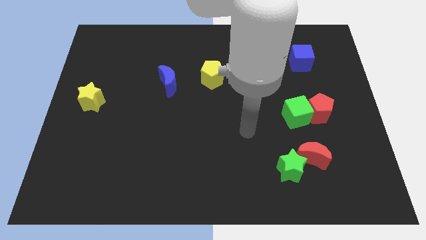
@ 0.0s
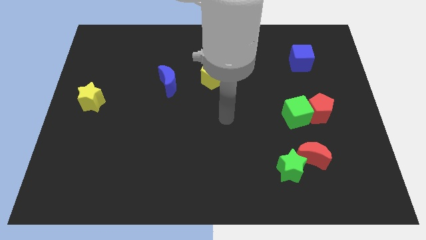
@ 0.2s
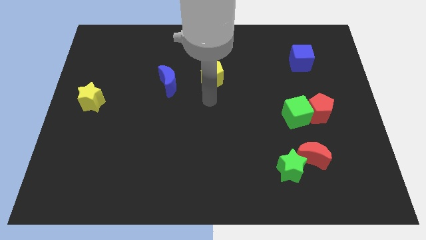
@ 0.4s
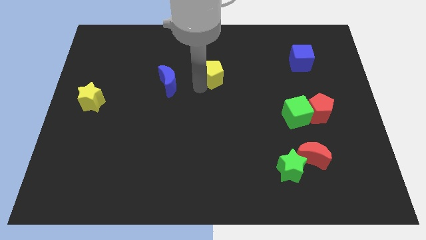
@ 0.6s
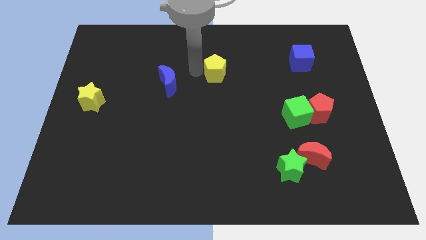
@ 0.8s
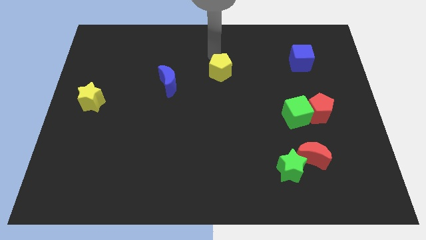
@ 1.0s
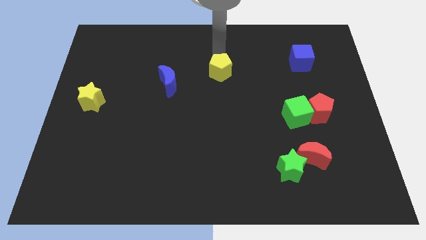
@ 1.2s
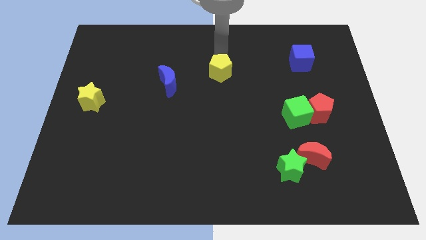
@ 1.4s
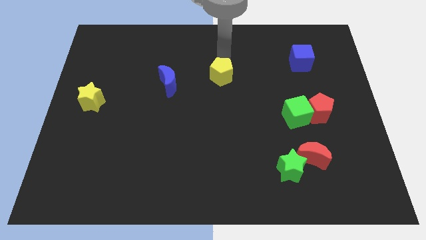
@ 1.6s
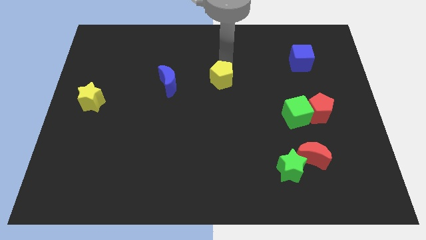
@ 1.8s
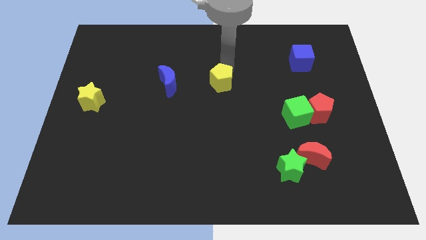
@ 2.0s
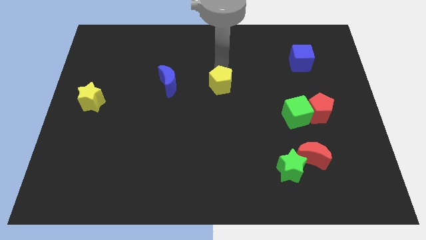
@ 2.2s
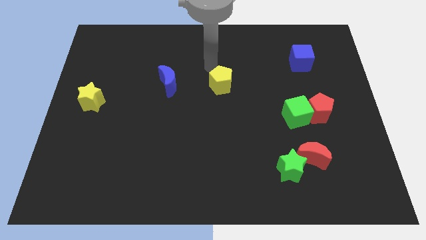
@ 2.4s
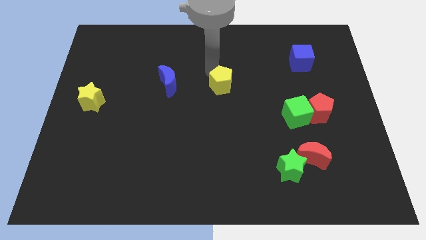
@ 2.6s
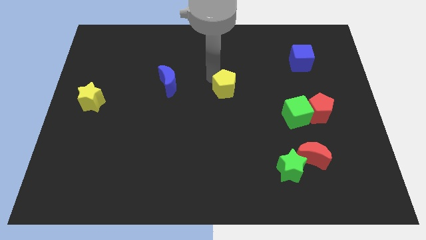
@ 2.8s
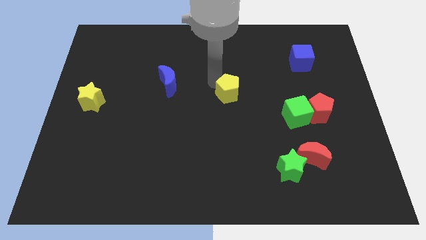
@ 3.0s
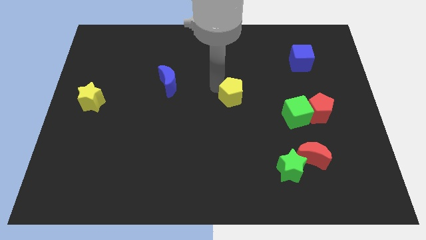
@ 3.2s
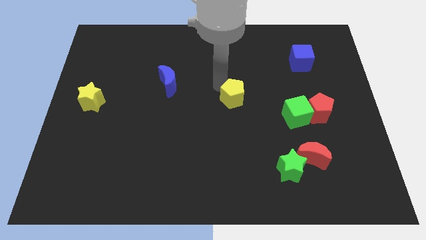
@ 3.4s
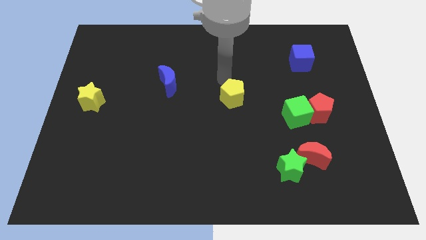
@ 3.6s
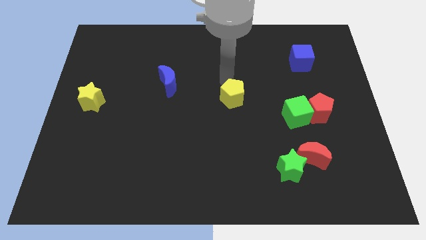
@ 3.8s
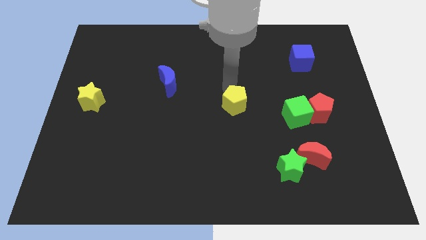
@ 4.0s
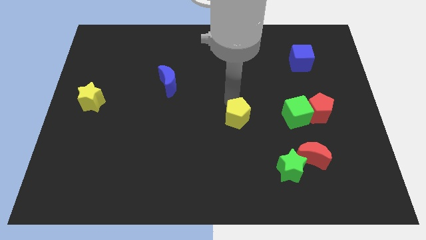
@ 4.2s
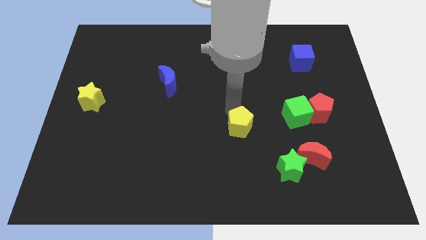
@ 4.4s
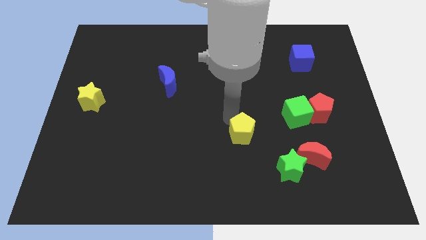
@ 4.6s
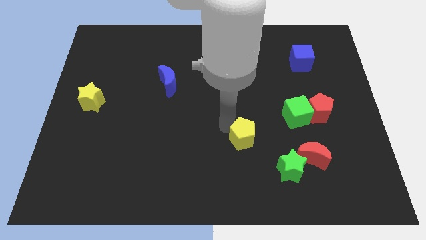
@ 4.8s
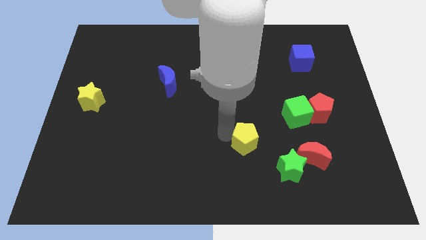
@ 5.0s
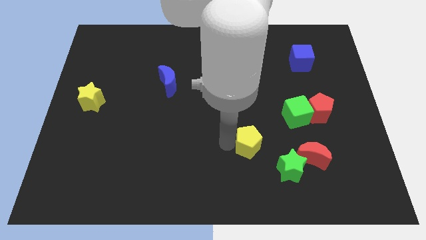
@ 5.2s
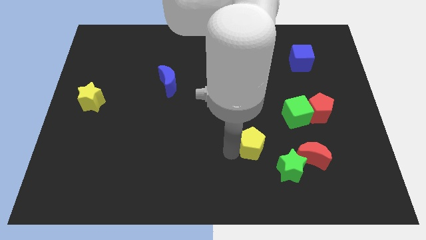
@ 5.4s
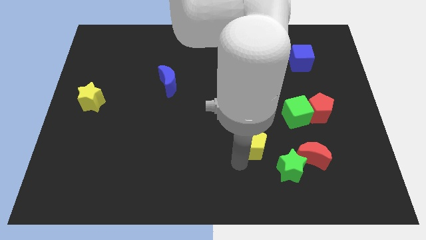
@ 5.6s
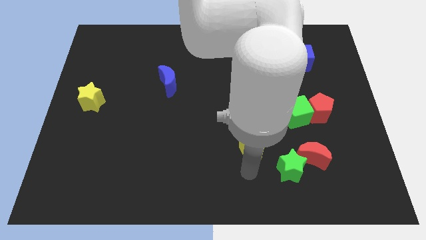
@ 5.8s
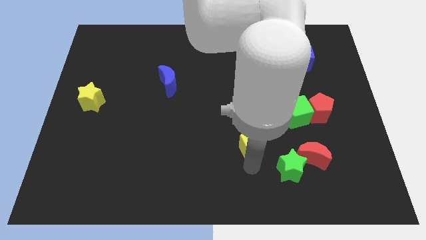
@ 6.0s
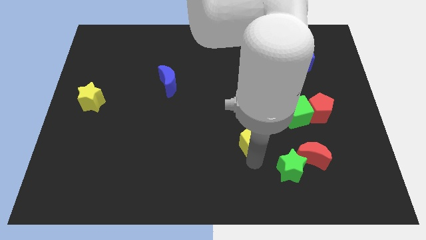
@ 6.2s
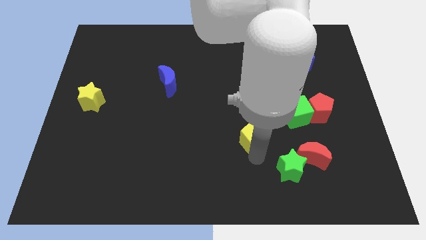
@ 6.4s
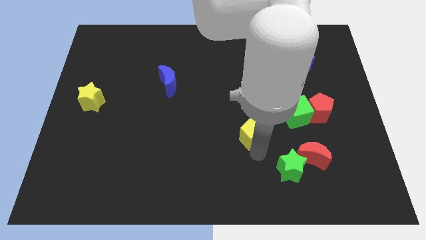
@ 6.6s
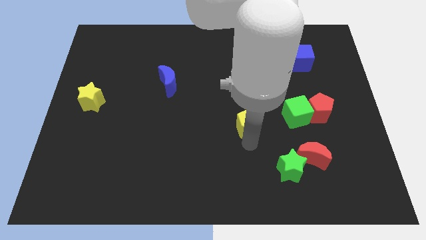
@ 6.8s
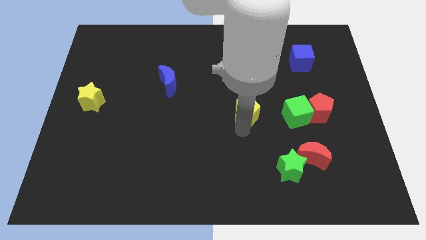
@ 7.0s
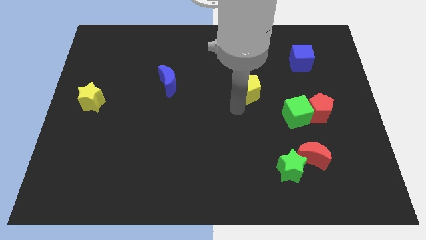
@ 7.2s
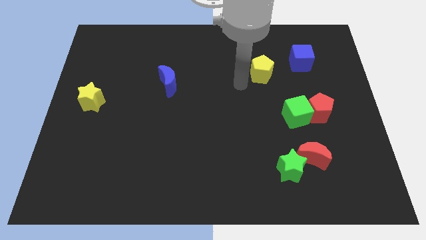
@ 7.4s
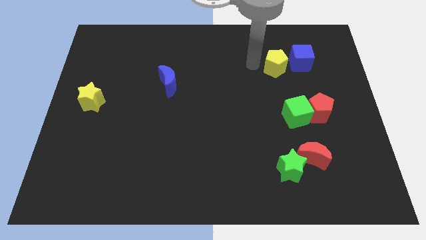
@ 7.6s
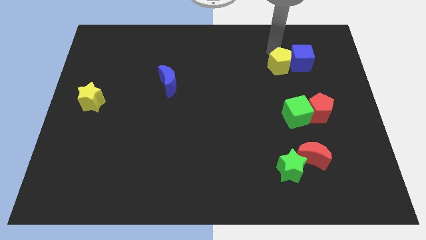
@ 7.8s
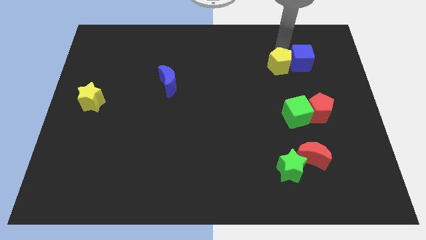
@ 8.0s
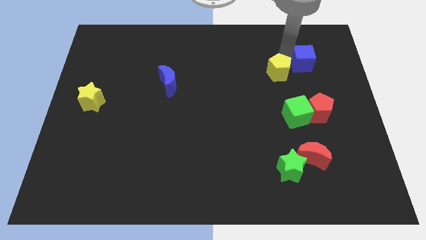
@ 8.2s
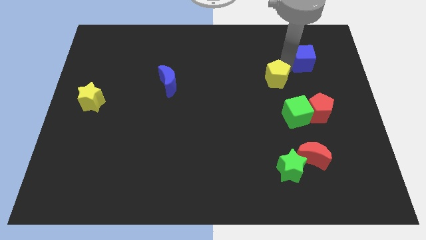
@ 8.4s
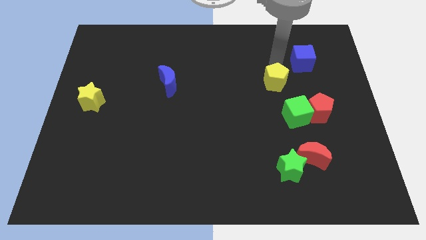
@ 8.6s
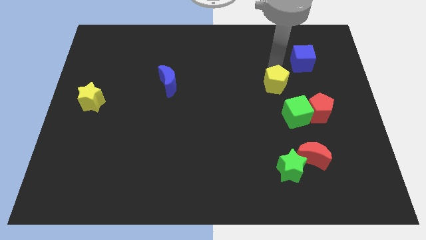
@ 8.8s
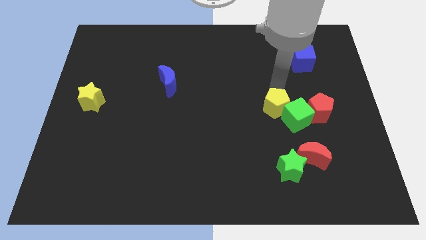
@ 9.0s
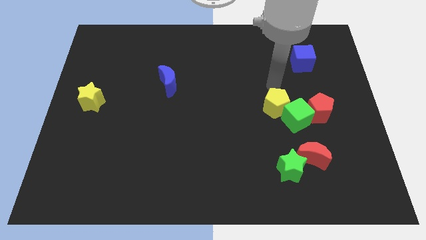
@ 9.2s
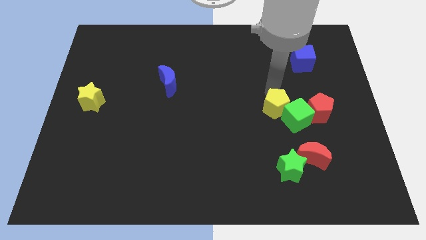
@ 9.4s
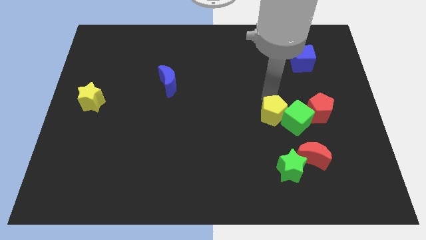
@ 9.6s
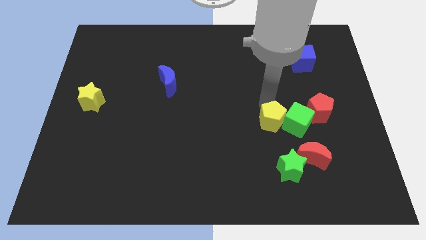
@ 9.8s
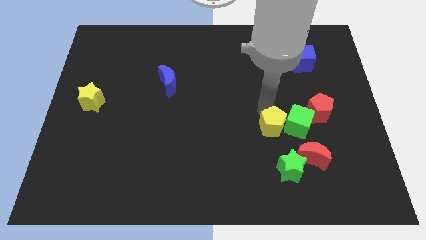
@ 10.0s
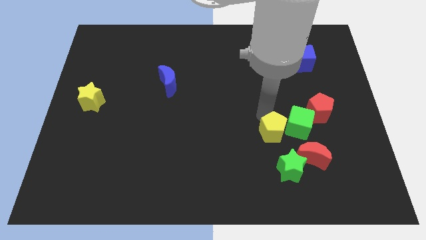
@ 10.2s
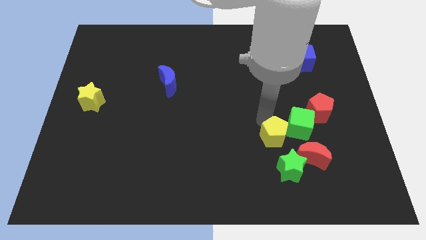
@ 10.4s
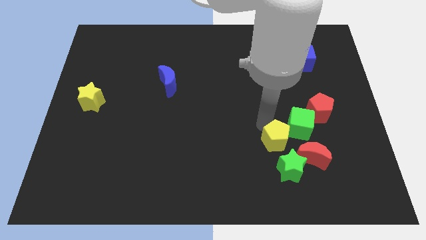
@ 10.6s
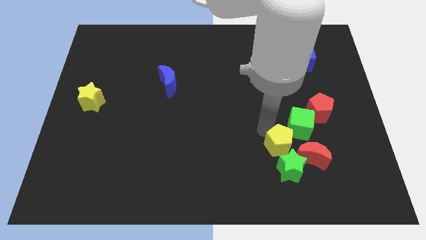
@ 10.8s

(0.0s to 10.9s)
put the yellow pentagon to the green star

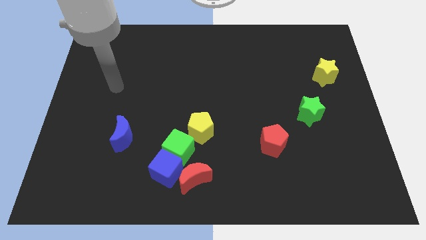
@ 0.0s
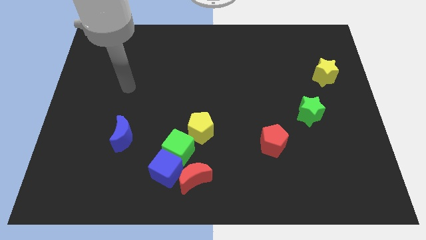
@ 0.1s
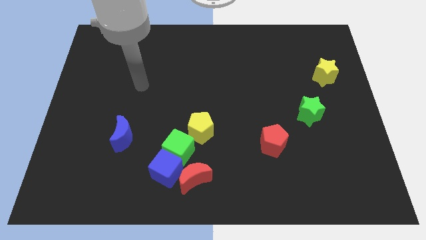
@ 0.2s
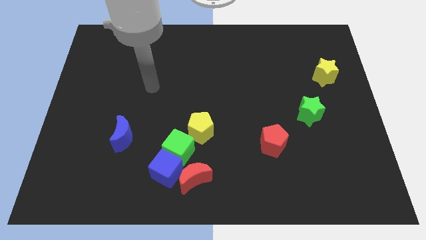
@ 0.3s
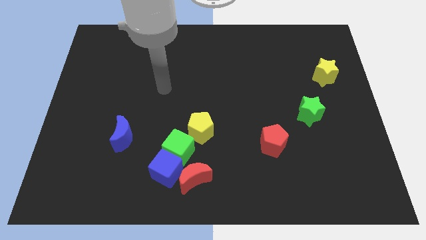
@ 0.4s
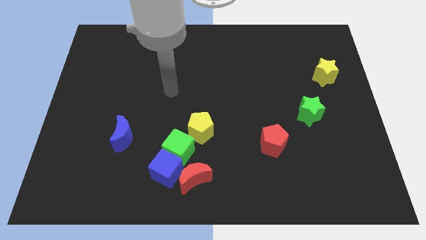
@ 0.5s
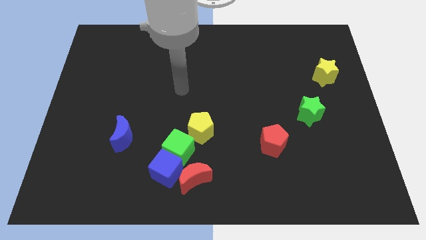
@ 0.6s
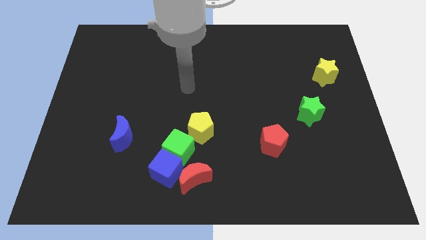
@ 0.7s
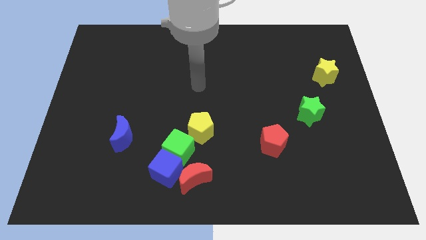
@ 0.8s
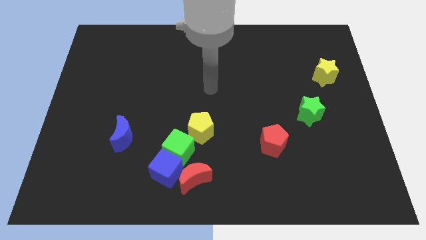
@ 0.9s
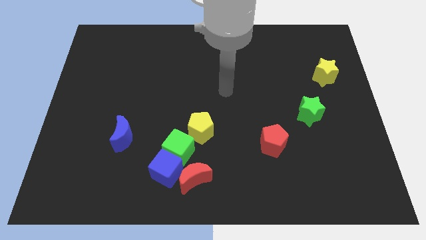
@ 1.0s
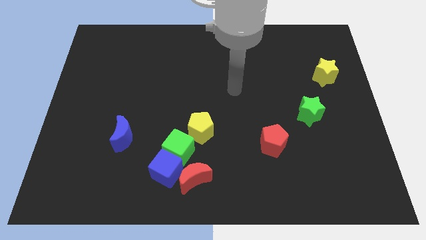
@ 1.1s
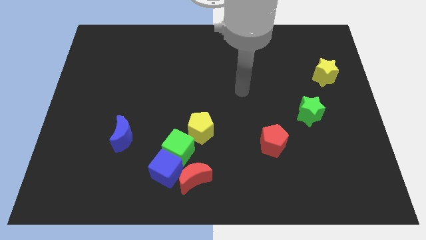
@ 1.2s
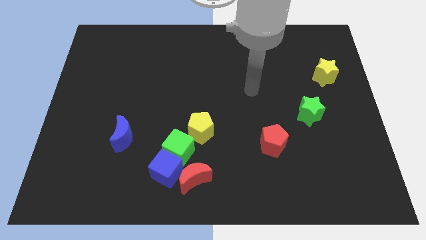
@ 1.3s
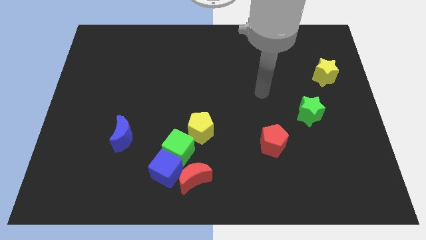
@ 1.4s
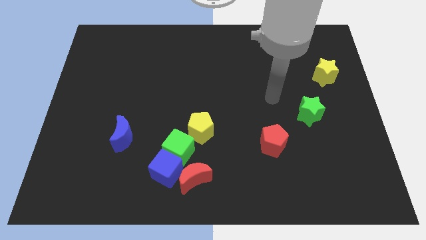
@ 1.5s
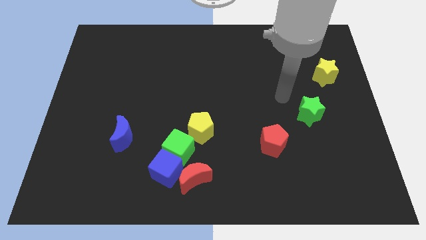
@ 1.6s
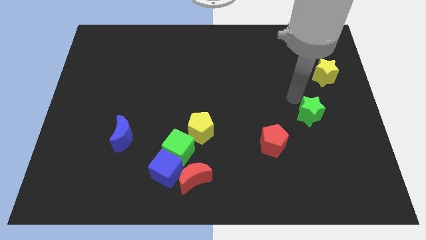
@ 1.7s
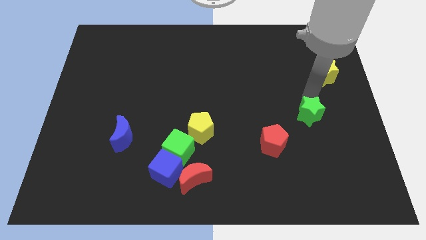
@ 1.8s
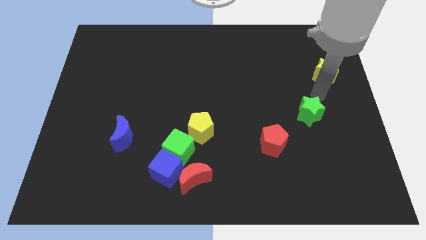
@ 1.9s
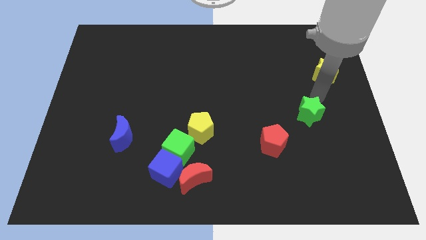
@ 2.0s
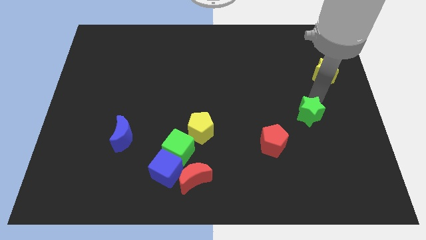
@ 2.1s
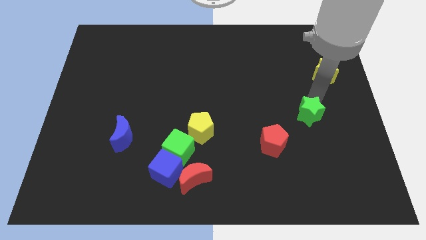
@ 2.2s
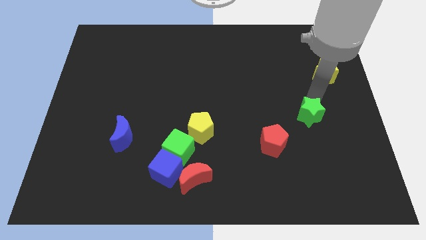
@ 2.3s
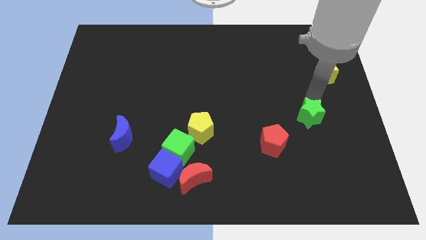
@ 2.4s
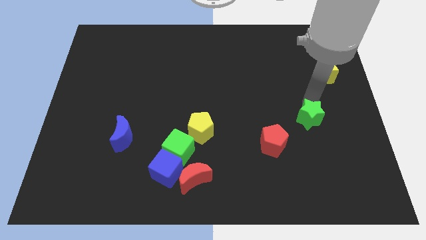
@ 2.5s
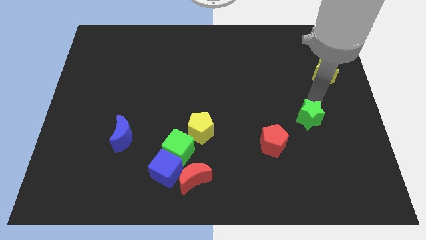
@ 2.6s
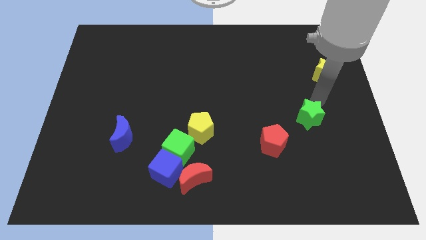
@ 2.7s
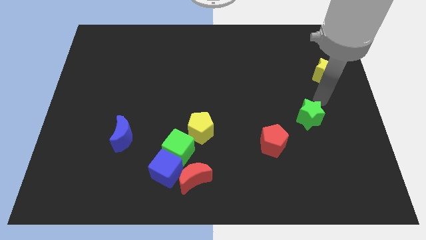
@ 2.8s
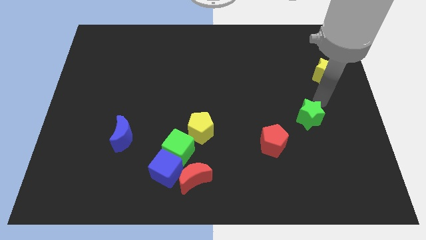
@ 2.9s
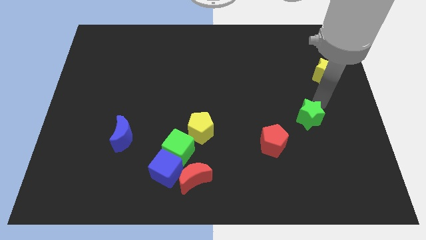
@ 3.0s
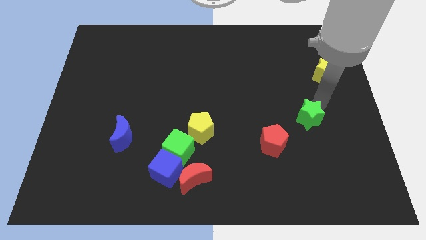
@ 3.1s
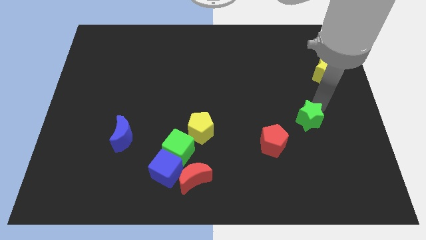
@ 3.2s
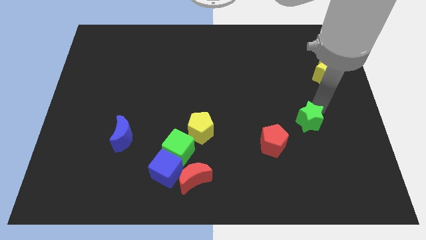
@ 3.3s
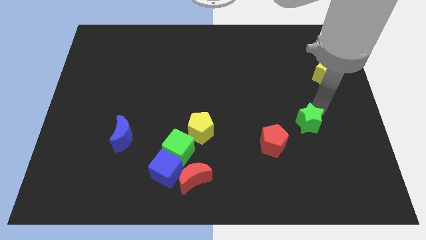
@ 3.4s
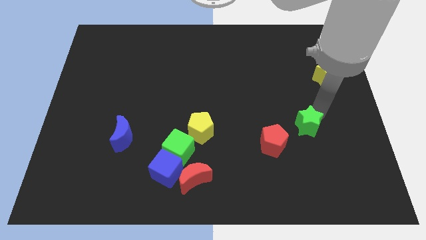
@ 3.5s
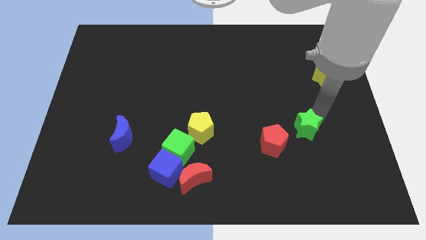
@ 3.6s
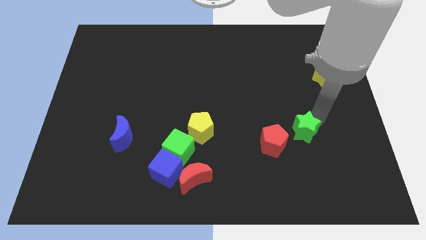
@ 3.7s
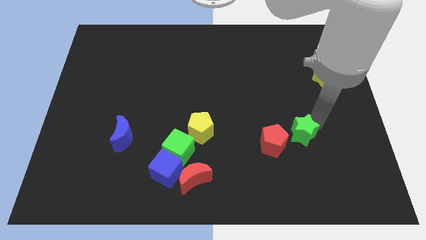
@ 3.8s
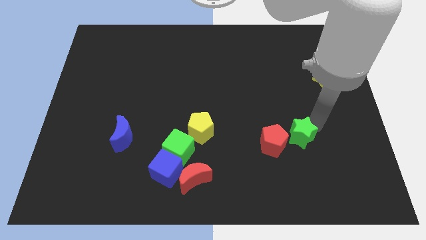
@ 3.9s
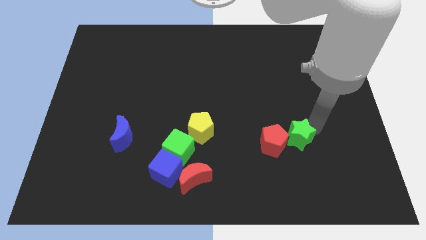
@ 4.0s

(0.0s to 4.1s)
move the green star to the red pentagon
